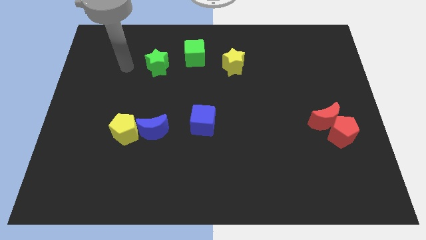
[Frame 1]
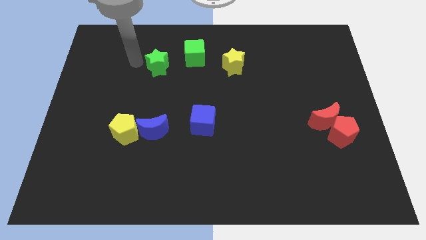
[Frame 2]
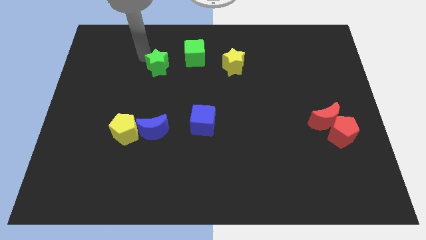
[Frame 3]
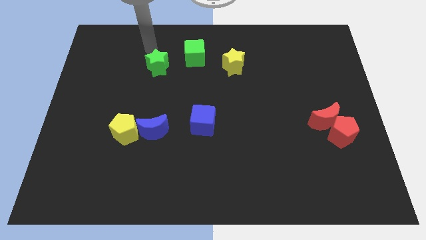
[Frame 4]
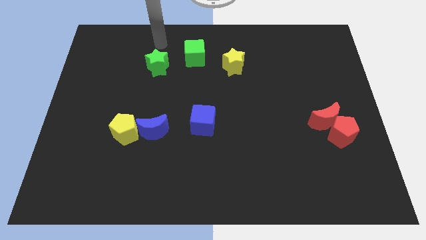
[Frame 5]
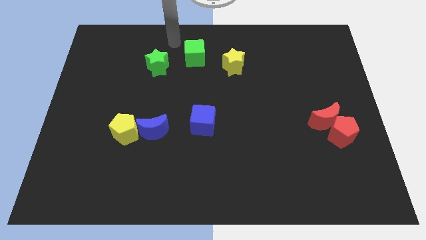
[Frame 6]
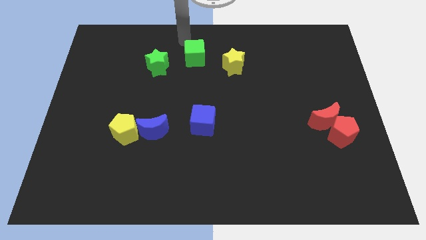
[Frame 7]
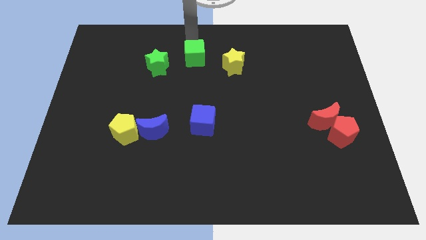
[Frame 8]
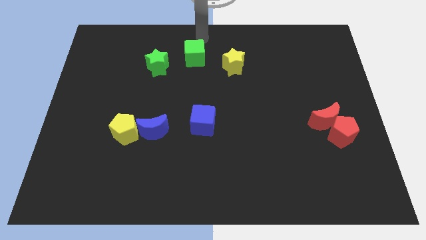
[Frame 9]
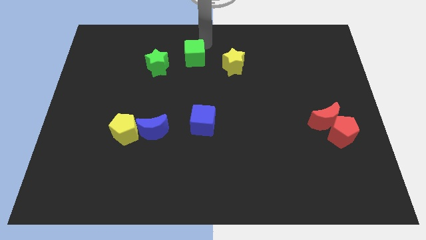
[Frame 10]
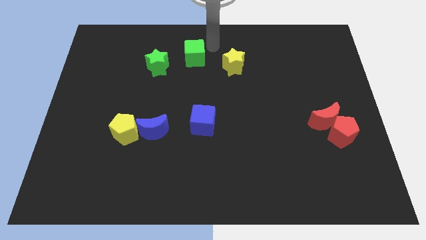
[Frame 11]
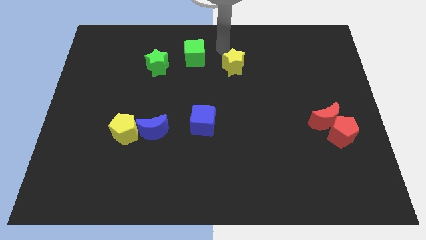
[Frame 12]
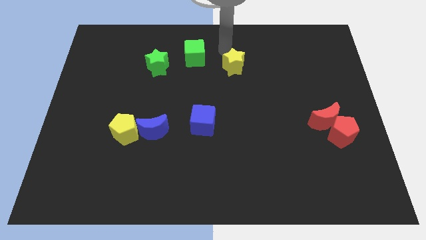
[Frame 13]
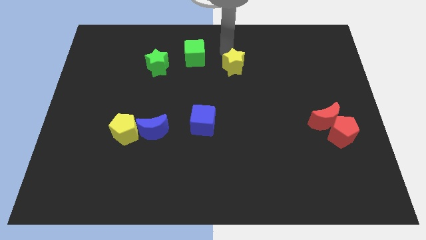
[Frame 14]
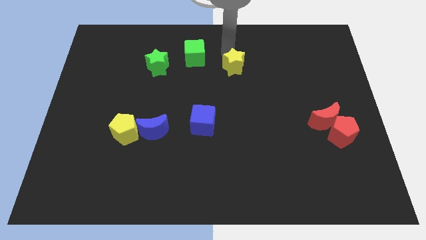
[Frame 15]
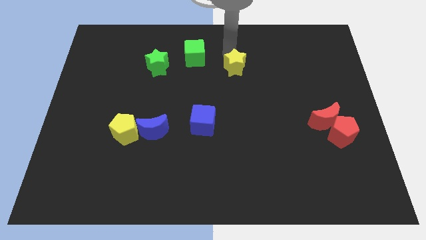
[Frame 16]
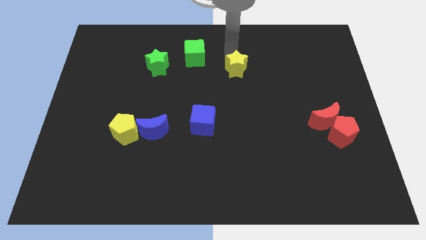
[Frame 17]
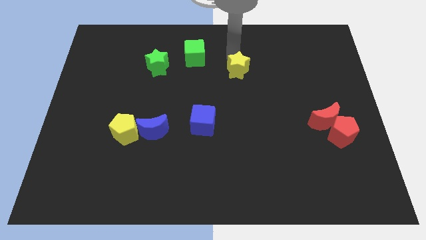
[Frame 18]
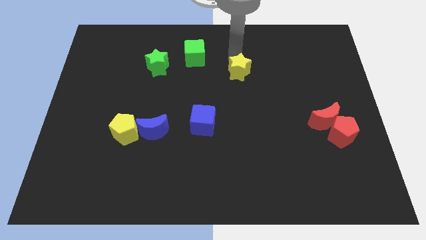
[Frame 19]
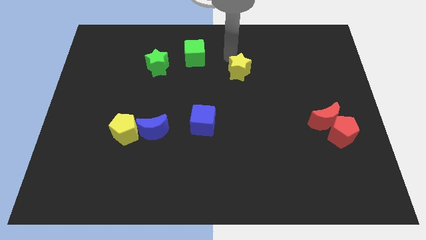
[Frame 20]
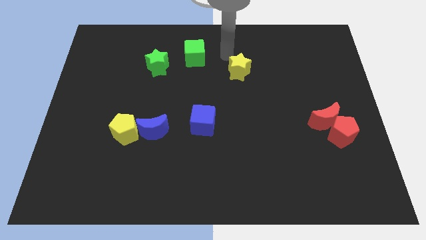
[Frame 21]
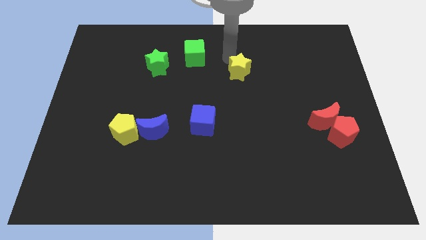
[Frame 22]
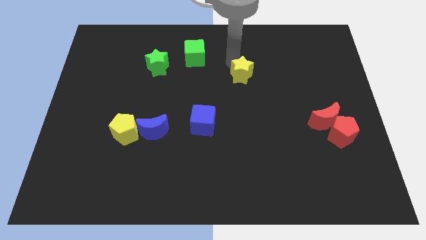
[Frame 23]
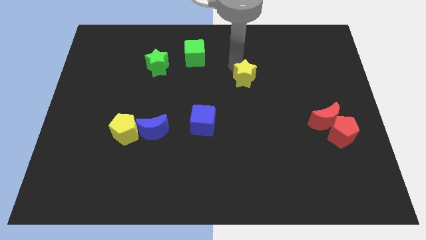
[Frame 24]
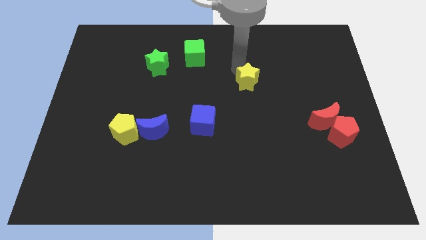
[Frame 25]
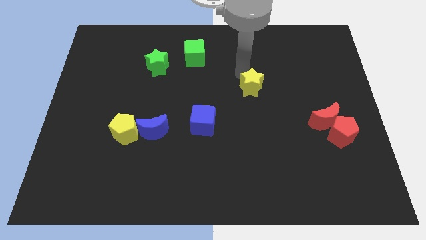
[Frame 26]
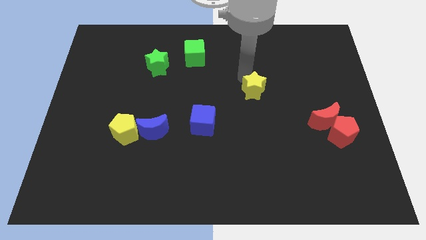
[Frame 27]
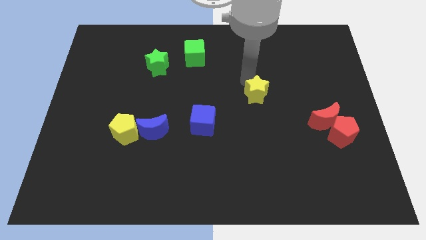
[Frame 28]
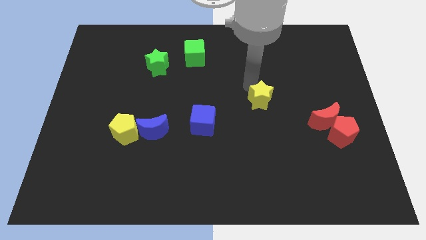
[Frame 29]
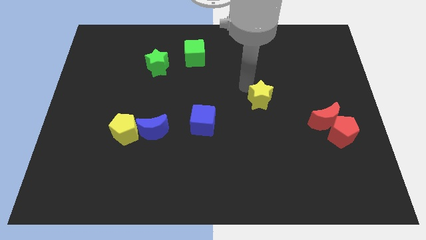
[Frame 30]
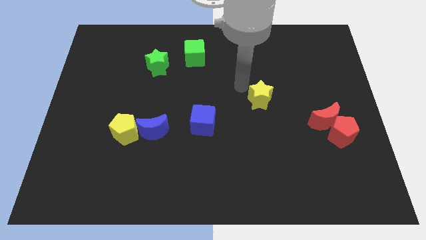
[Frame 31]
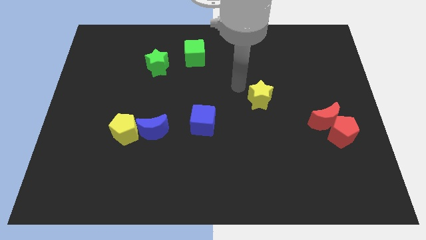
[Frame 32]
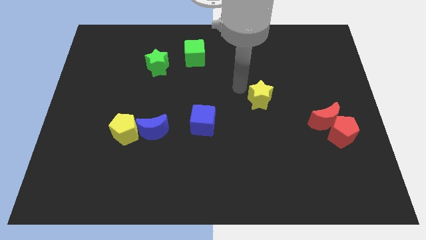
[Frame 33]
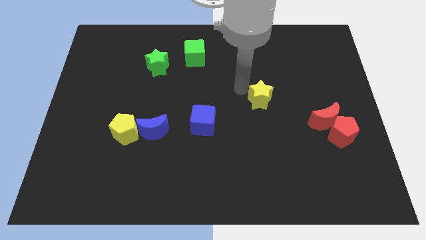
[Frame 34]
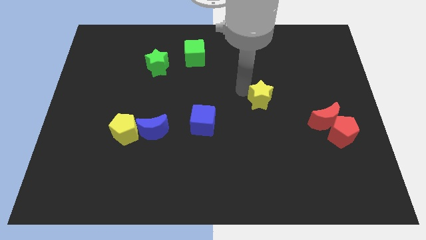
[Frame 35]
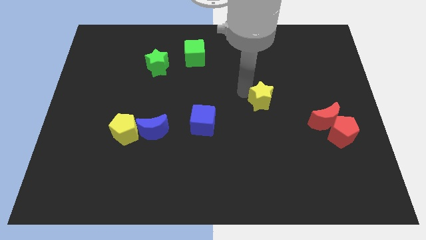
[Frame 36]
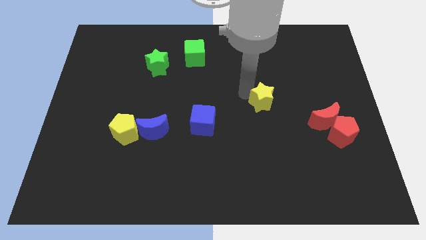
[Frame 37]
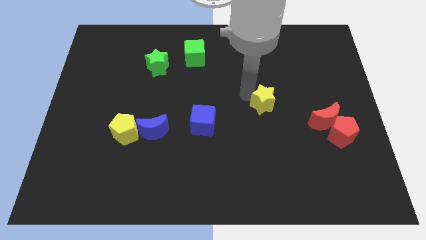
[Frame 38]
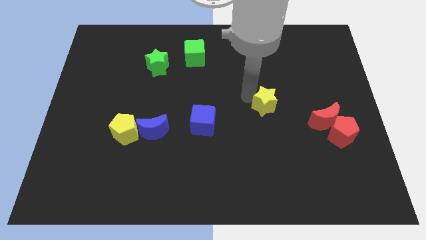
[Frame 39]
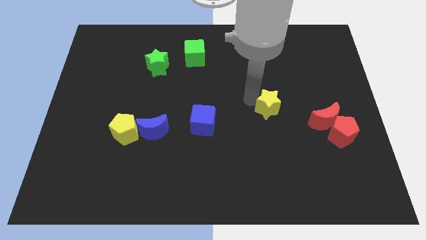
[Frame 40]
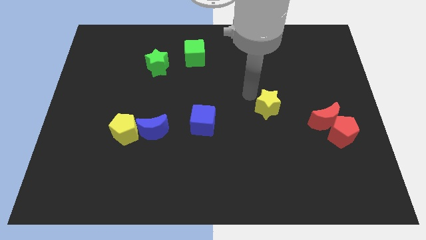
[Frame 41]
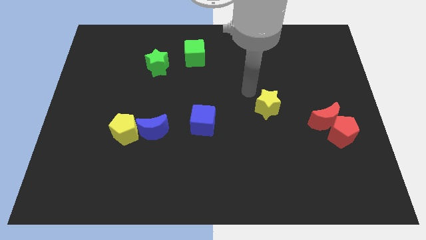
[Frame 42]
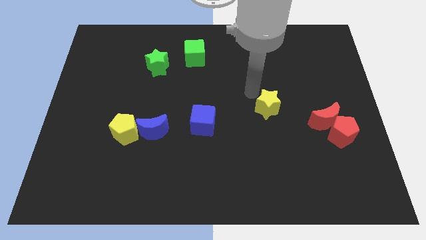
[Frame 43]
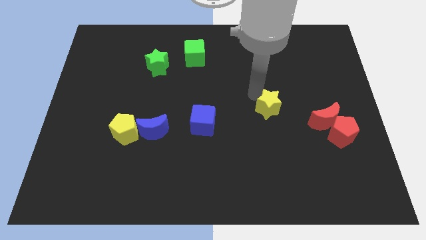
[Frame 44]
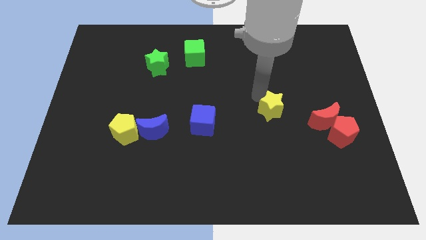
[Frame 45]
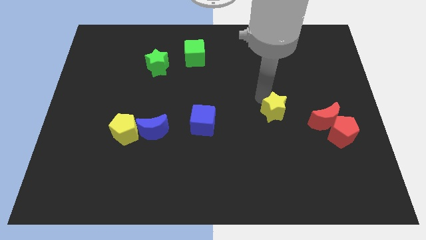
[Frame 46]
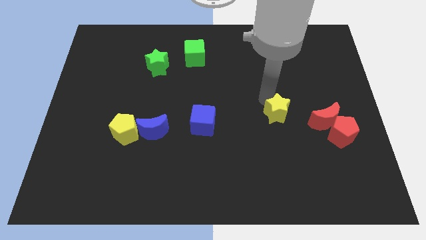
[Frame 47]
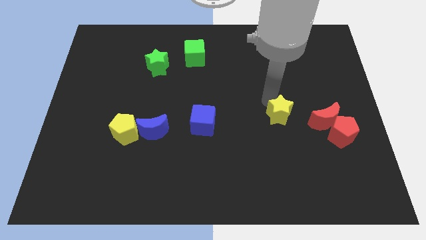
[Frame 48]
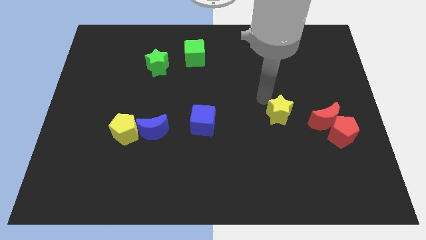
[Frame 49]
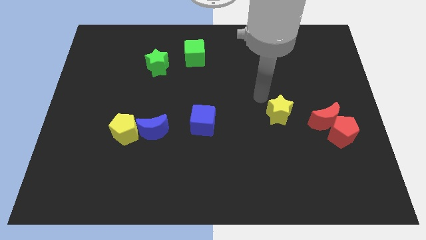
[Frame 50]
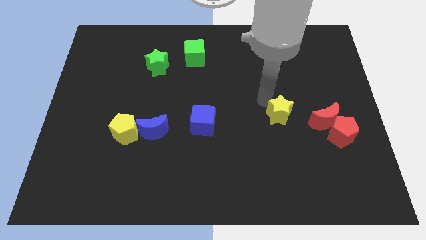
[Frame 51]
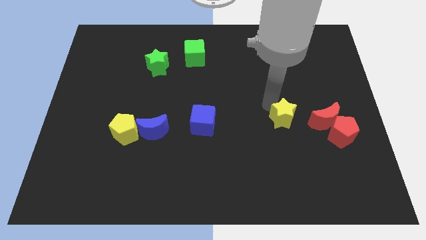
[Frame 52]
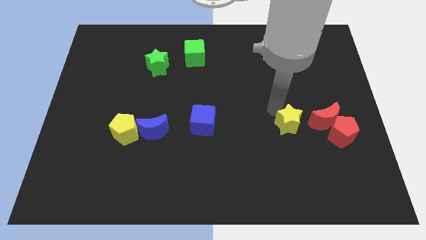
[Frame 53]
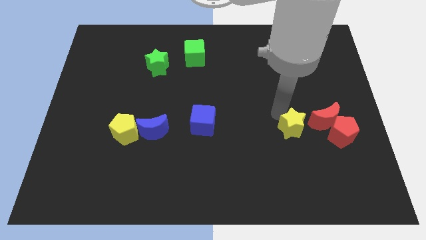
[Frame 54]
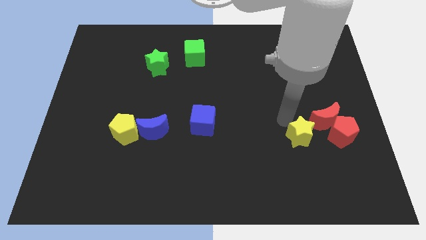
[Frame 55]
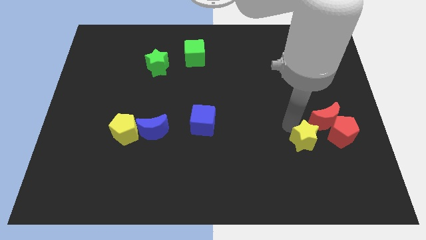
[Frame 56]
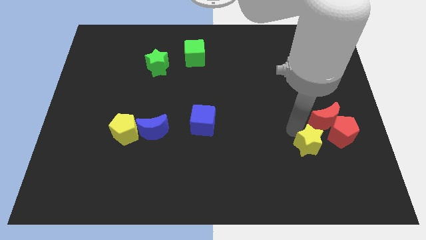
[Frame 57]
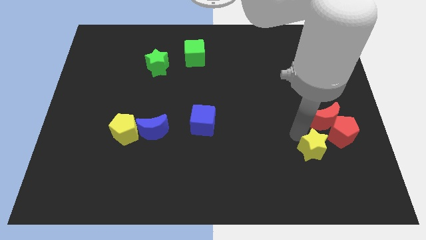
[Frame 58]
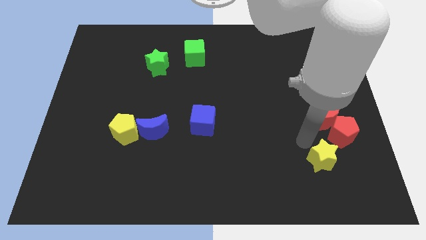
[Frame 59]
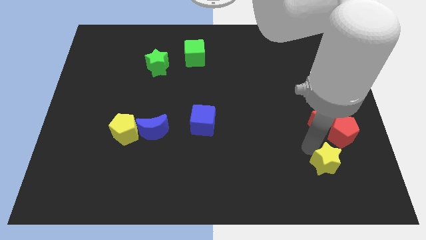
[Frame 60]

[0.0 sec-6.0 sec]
move the yellow star below the red pentagon
